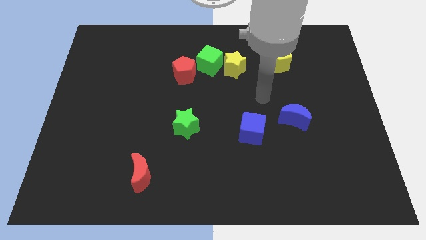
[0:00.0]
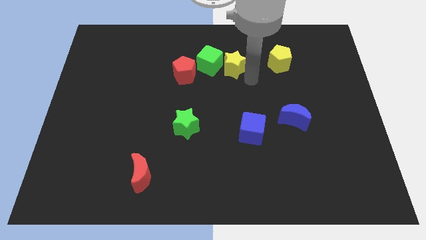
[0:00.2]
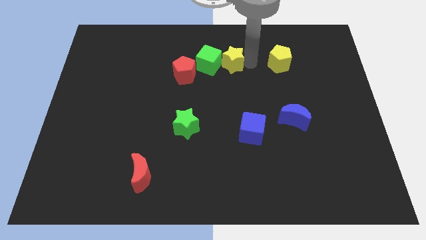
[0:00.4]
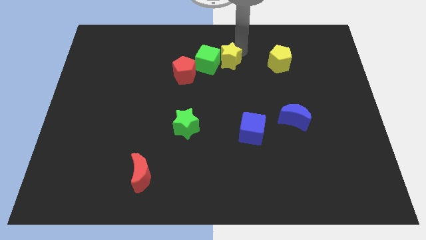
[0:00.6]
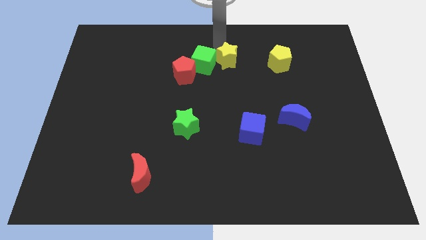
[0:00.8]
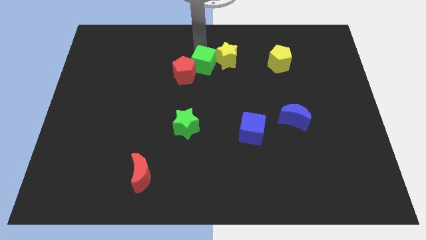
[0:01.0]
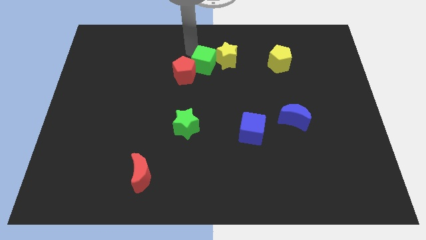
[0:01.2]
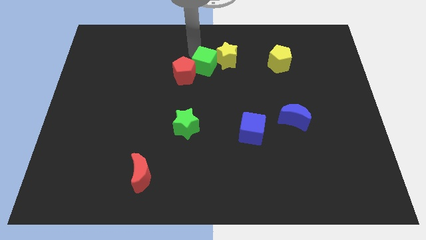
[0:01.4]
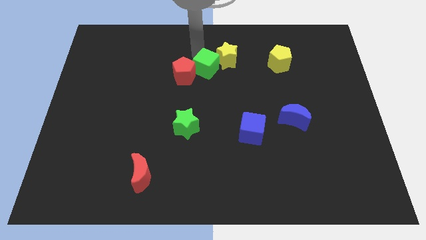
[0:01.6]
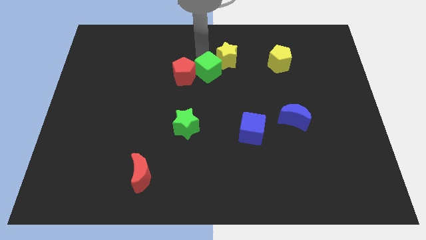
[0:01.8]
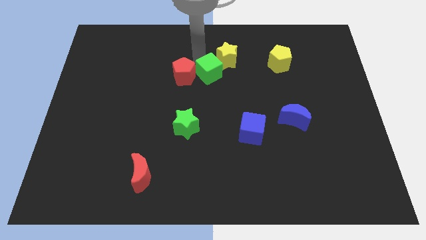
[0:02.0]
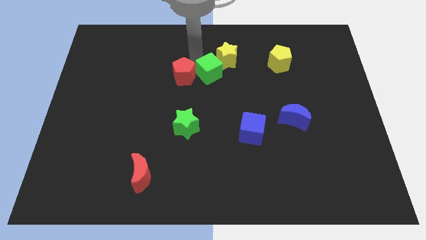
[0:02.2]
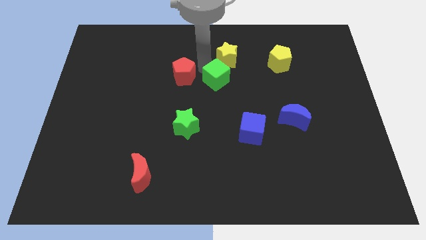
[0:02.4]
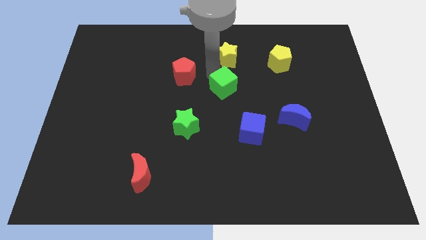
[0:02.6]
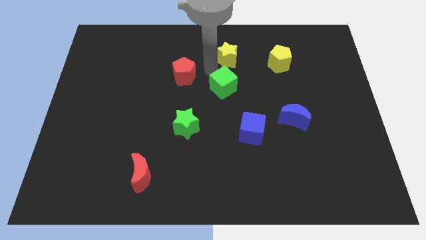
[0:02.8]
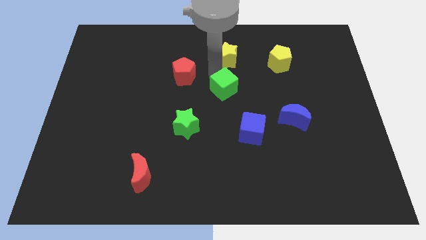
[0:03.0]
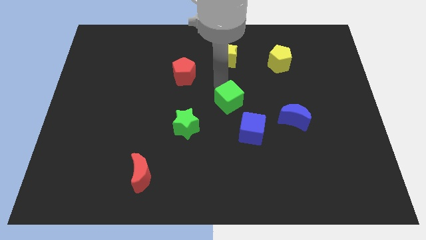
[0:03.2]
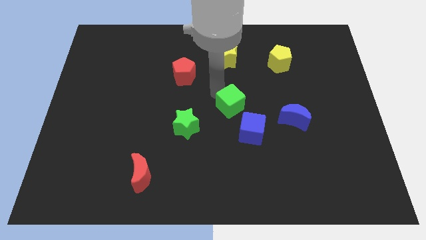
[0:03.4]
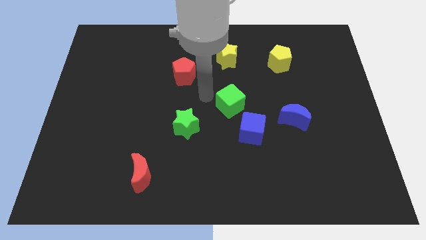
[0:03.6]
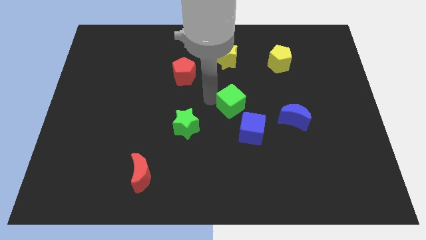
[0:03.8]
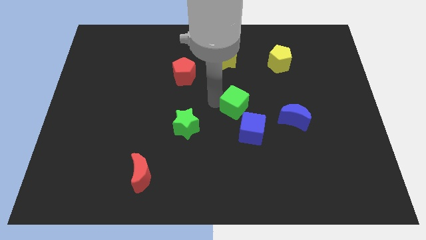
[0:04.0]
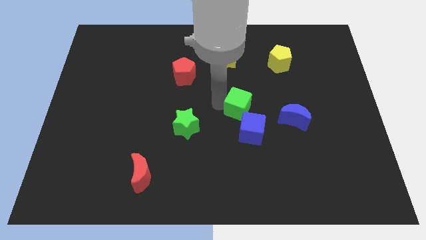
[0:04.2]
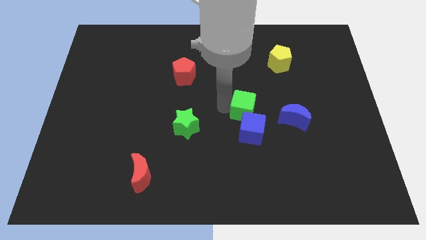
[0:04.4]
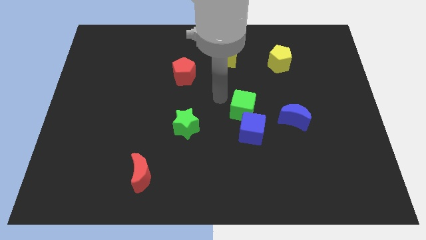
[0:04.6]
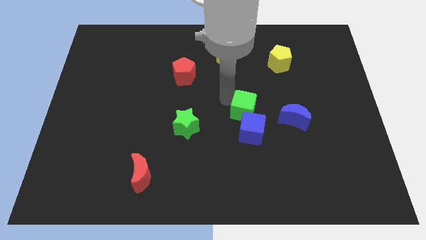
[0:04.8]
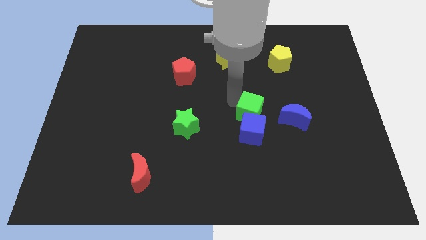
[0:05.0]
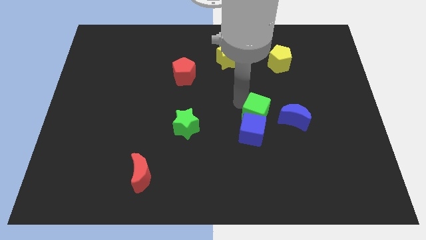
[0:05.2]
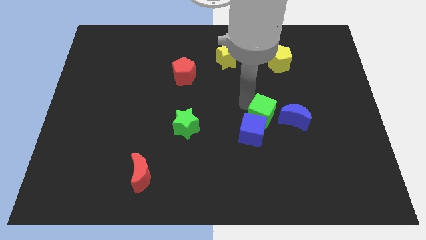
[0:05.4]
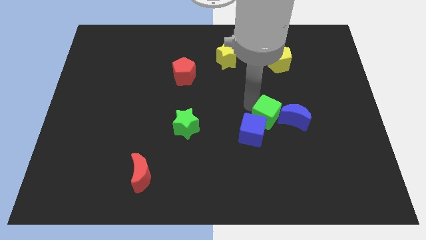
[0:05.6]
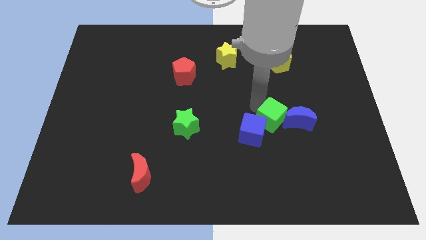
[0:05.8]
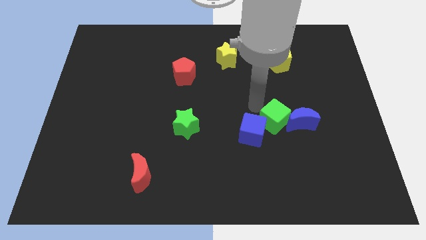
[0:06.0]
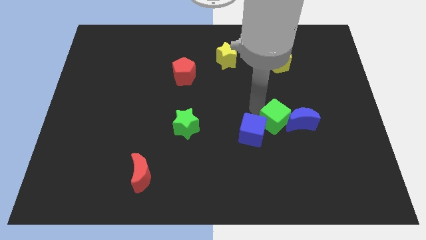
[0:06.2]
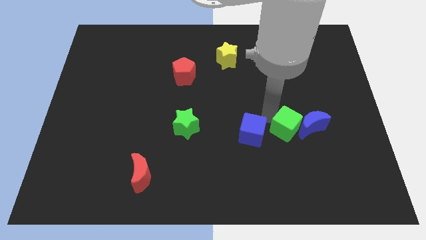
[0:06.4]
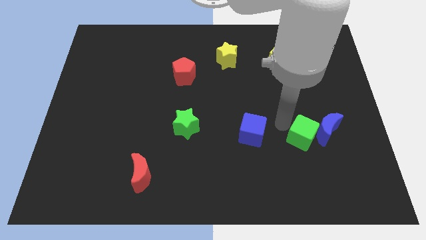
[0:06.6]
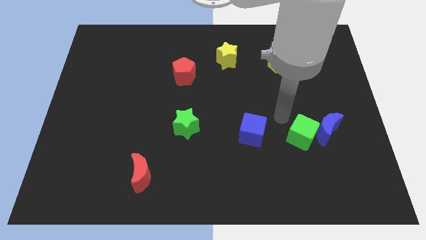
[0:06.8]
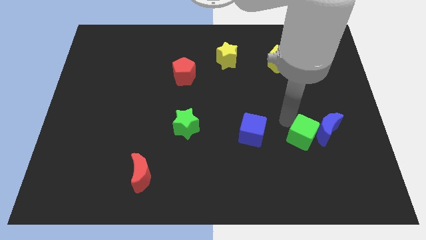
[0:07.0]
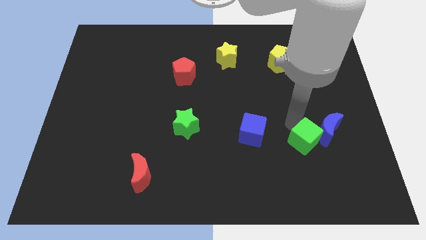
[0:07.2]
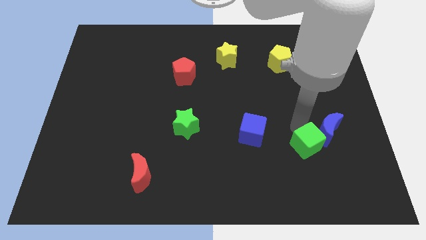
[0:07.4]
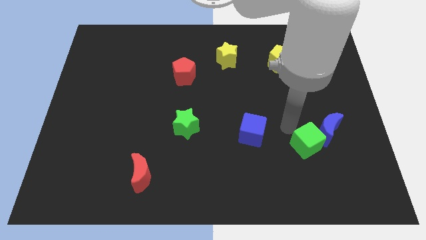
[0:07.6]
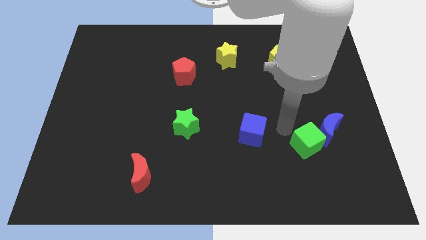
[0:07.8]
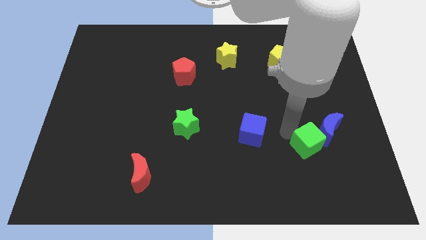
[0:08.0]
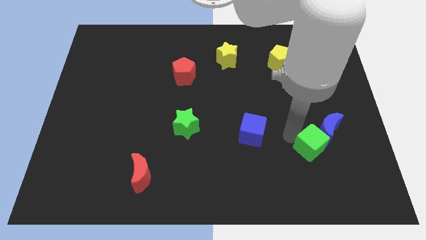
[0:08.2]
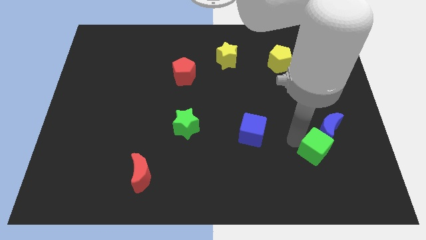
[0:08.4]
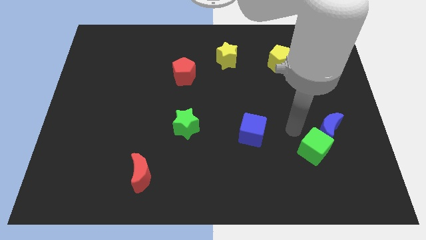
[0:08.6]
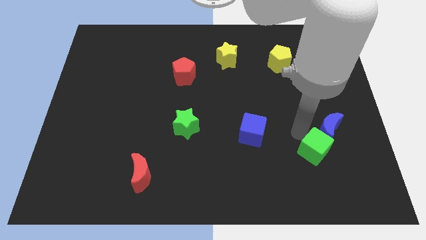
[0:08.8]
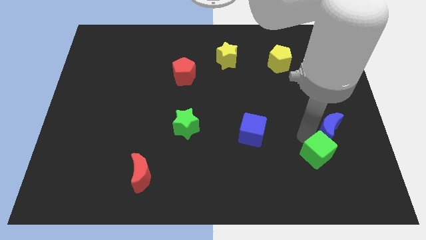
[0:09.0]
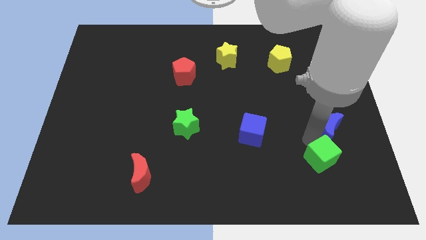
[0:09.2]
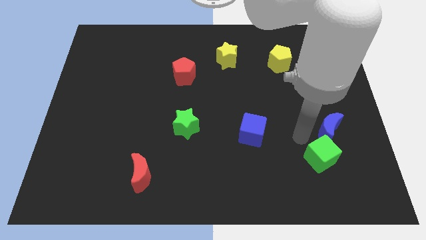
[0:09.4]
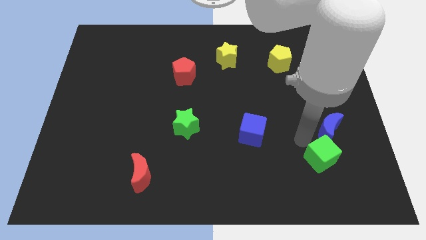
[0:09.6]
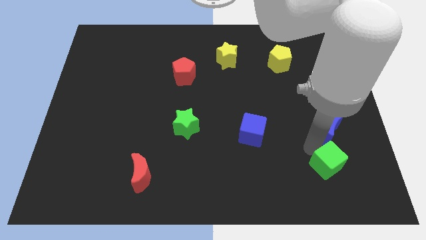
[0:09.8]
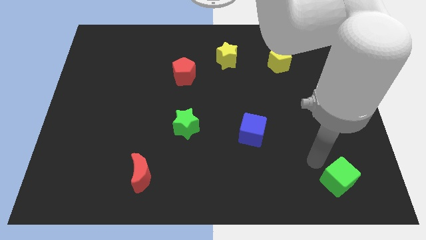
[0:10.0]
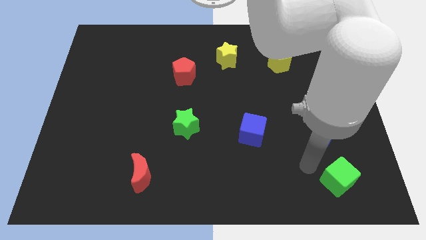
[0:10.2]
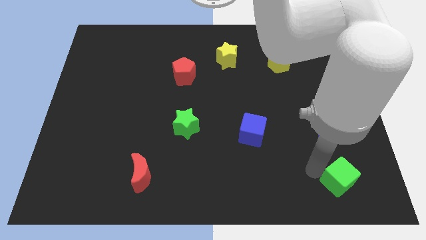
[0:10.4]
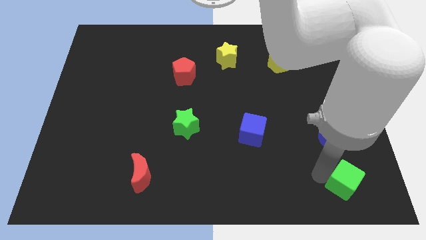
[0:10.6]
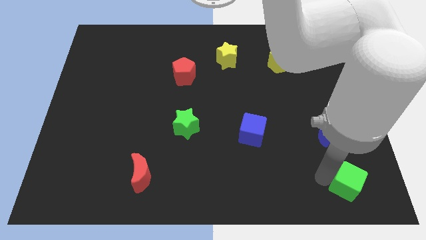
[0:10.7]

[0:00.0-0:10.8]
push the green cube to the lower right corner

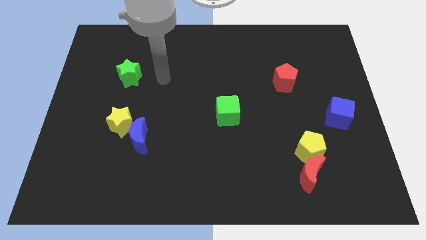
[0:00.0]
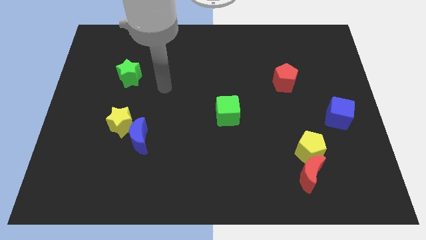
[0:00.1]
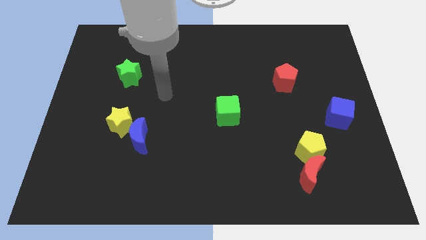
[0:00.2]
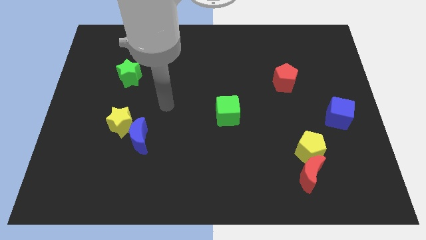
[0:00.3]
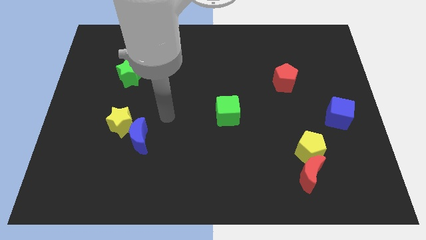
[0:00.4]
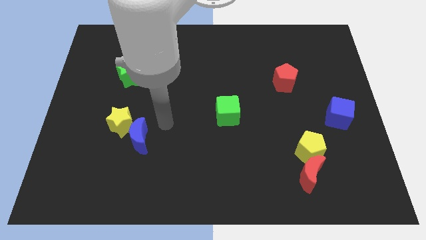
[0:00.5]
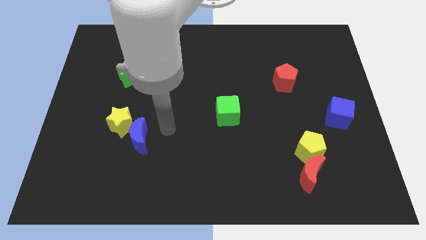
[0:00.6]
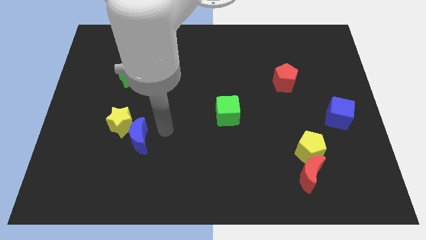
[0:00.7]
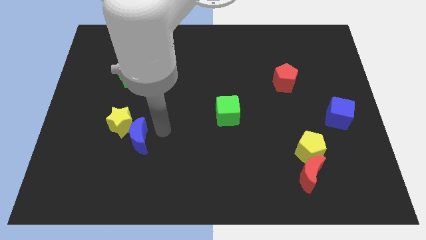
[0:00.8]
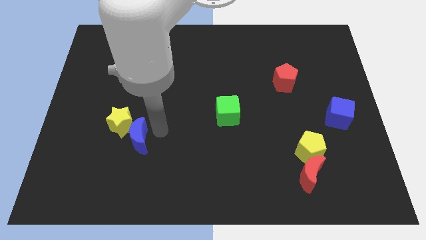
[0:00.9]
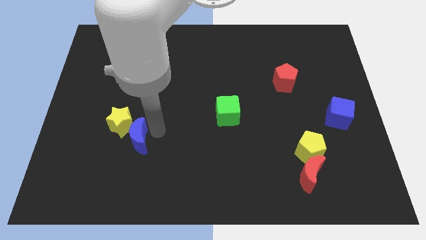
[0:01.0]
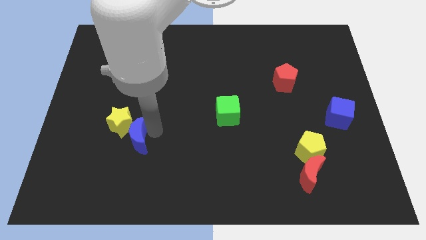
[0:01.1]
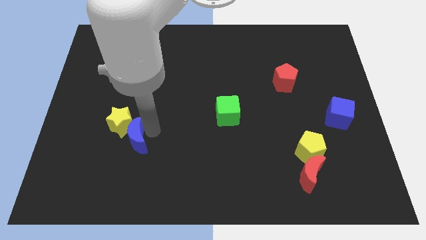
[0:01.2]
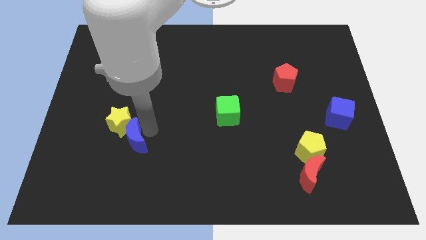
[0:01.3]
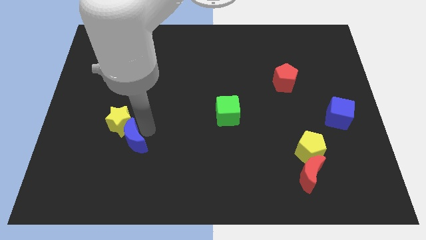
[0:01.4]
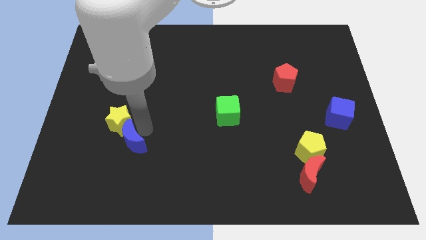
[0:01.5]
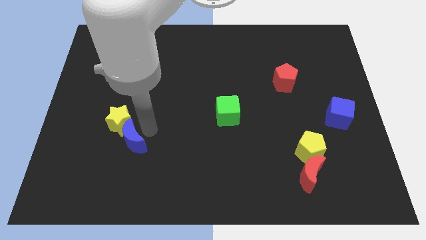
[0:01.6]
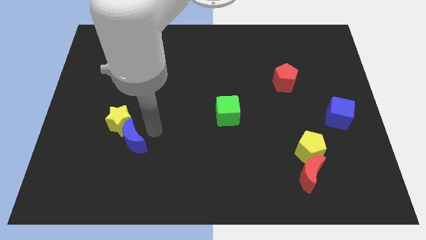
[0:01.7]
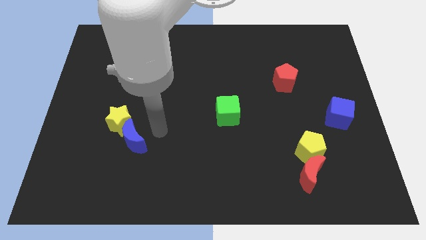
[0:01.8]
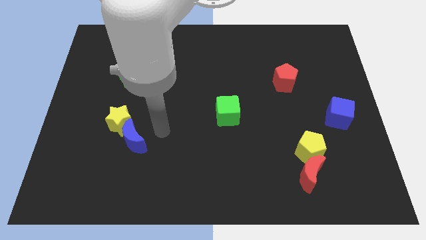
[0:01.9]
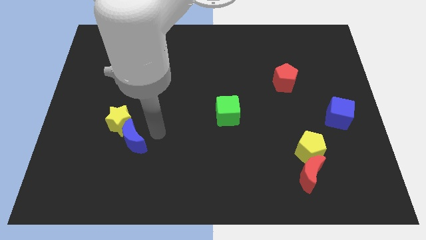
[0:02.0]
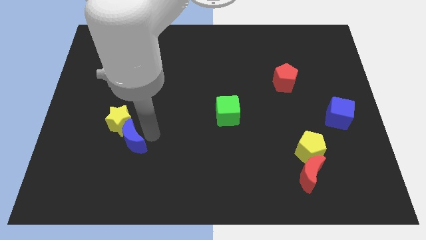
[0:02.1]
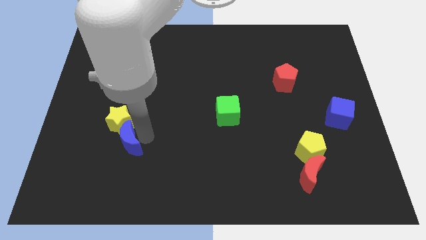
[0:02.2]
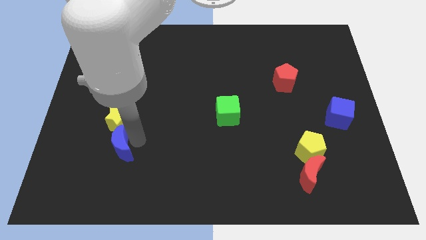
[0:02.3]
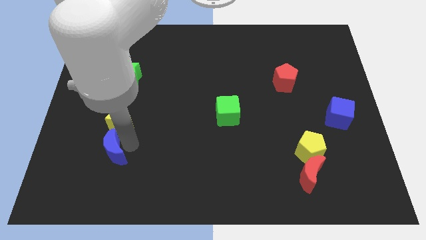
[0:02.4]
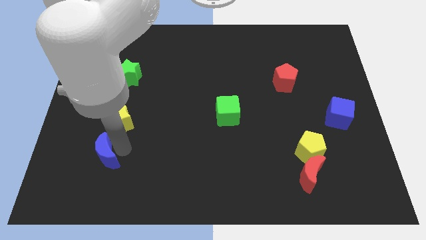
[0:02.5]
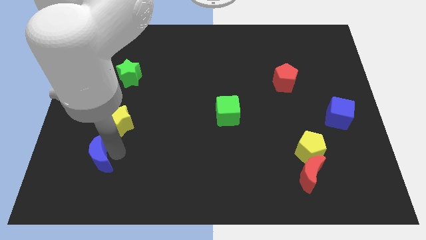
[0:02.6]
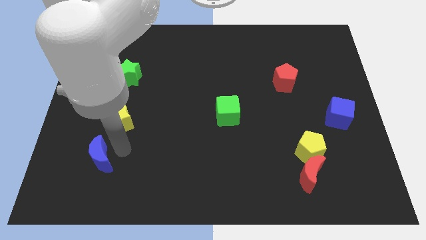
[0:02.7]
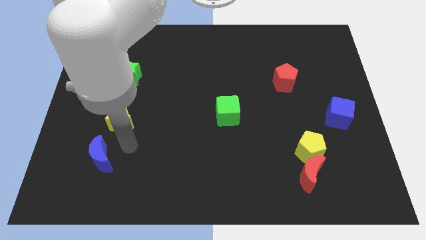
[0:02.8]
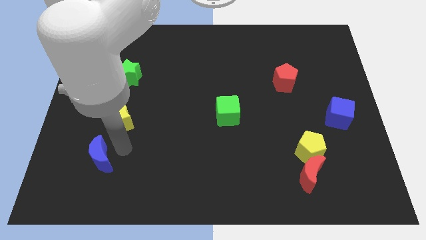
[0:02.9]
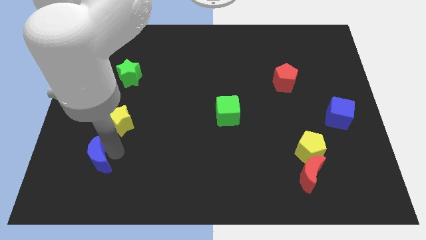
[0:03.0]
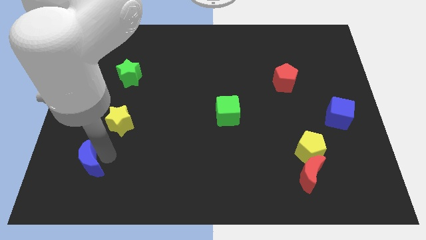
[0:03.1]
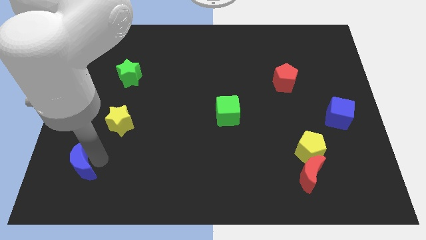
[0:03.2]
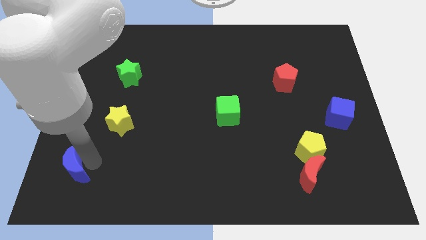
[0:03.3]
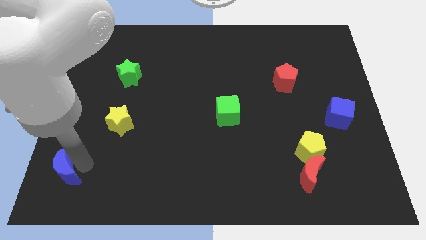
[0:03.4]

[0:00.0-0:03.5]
push the blue moon to the bottom left of the board
